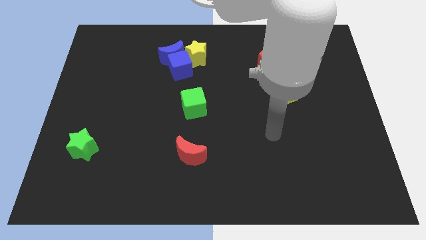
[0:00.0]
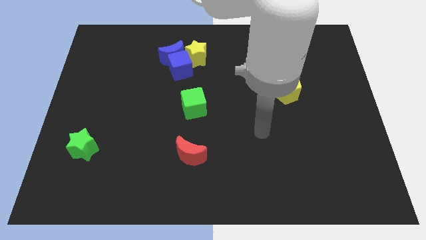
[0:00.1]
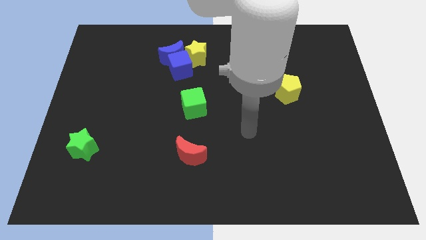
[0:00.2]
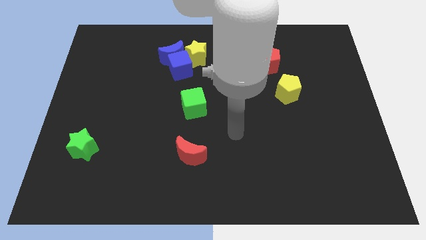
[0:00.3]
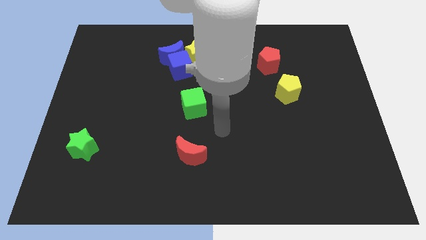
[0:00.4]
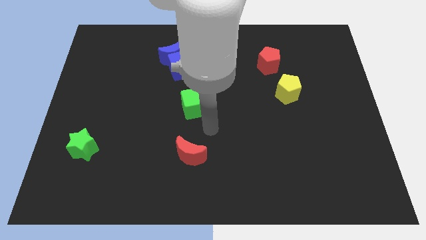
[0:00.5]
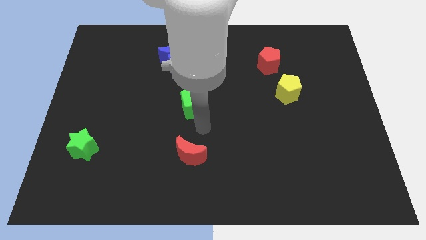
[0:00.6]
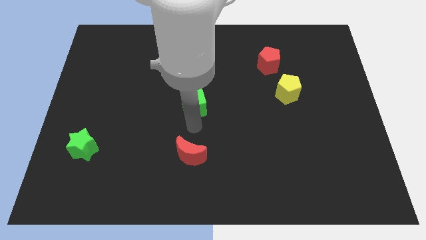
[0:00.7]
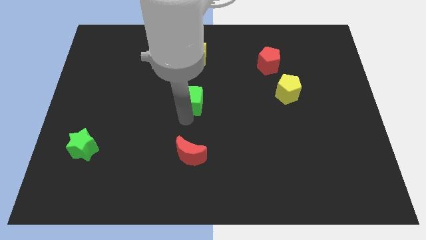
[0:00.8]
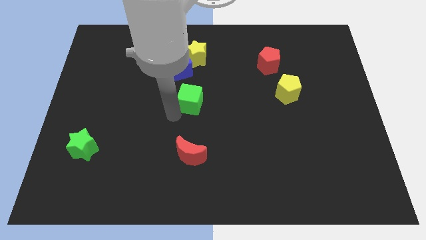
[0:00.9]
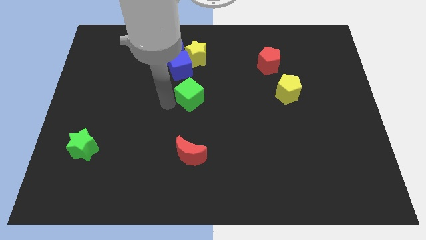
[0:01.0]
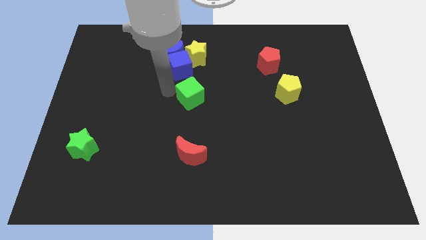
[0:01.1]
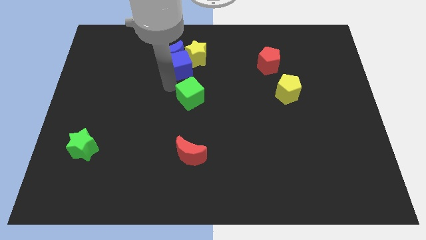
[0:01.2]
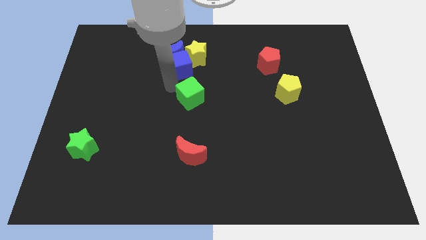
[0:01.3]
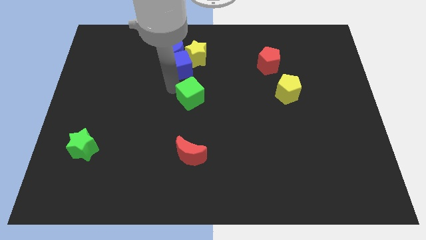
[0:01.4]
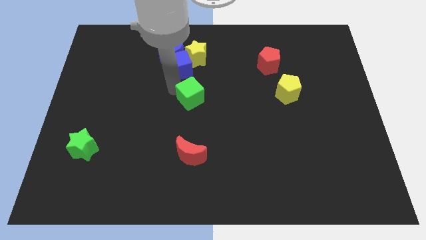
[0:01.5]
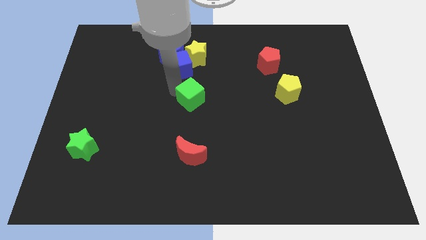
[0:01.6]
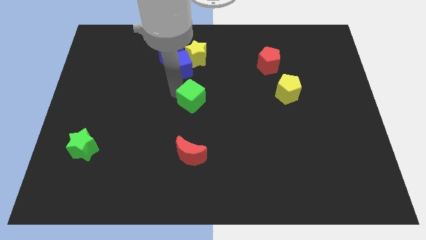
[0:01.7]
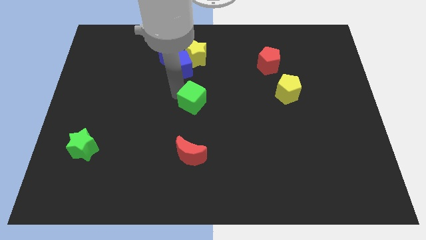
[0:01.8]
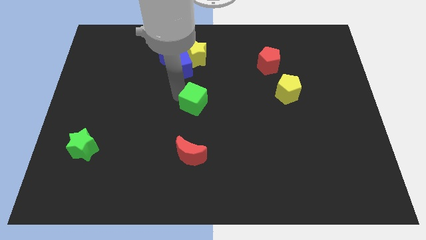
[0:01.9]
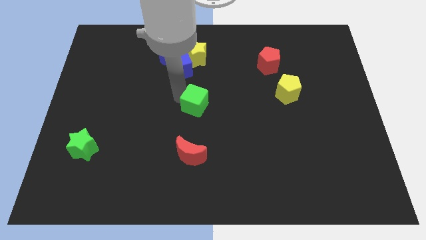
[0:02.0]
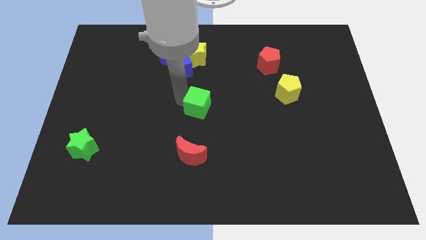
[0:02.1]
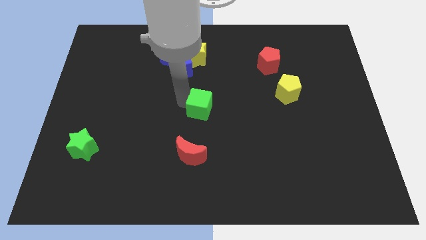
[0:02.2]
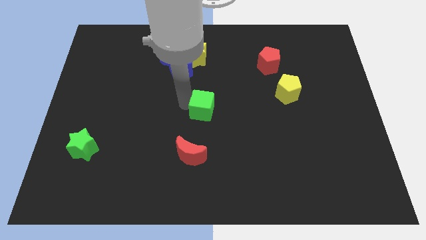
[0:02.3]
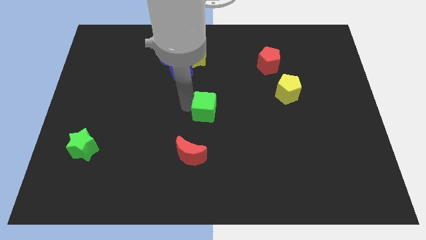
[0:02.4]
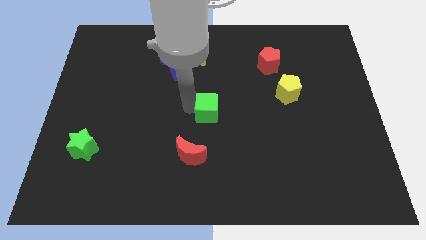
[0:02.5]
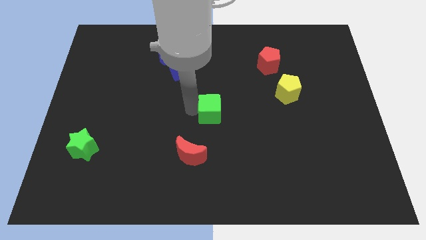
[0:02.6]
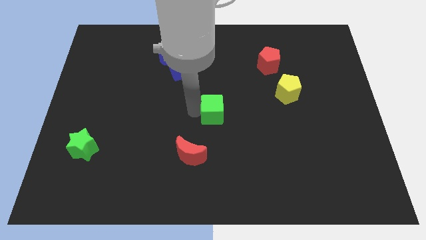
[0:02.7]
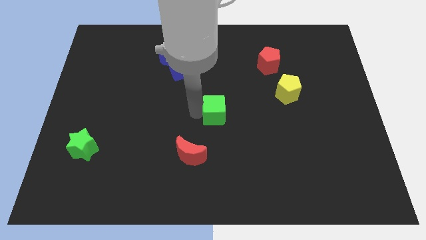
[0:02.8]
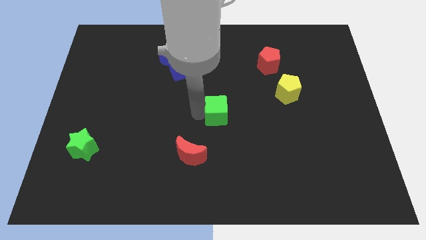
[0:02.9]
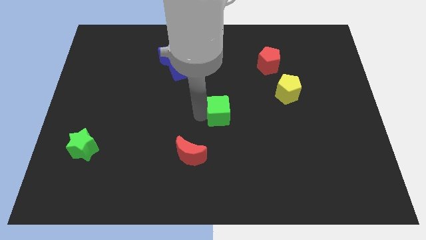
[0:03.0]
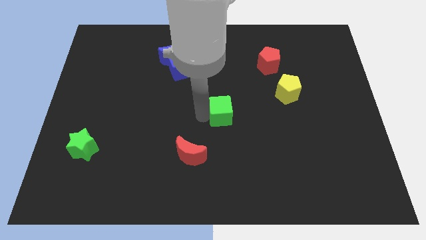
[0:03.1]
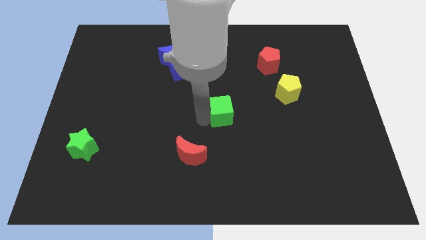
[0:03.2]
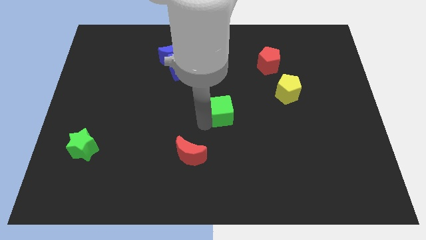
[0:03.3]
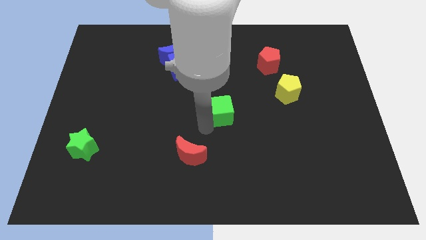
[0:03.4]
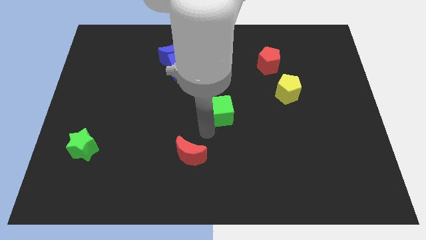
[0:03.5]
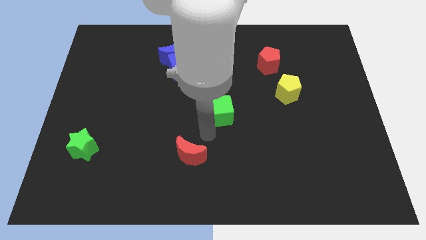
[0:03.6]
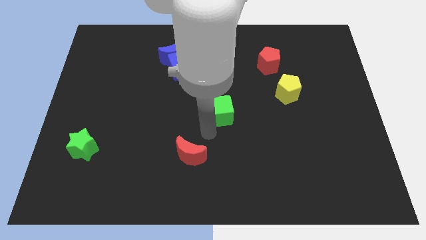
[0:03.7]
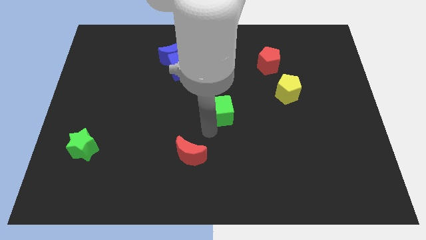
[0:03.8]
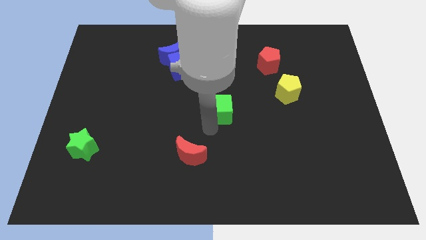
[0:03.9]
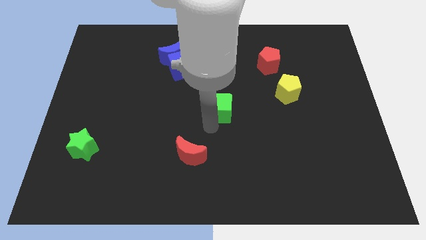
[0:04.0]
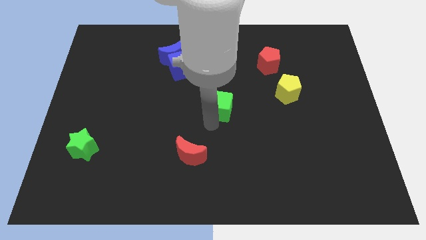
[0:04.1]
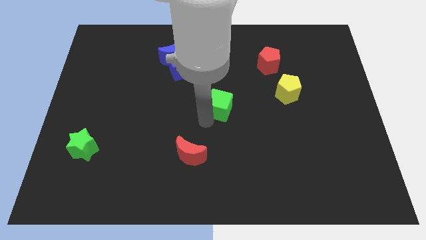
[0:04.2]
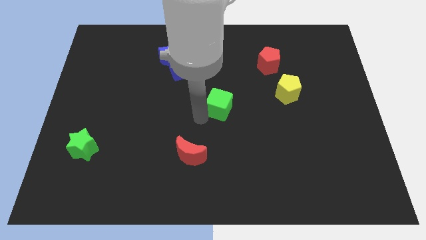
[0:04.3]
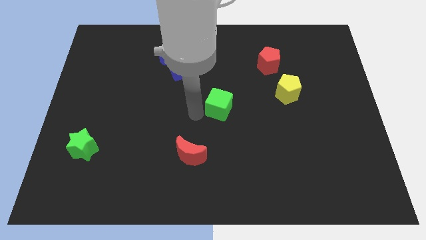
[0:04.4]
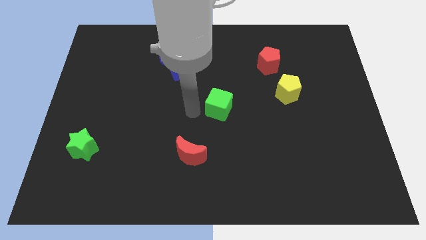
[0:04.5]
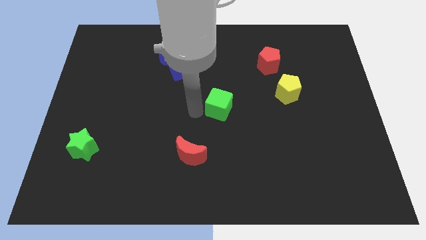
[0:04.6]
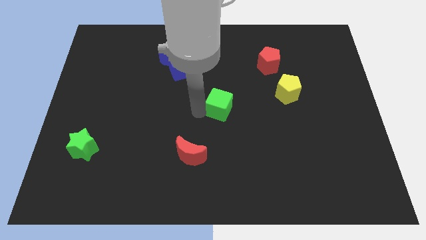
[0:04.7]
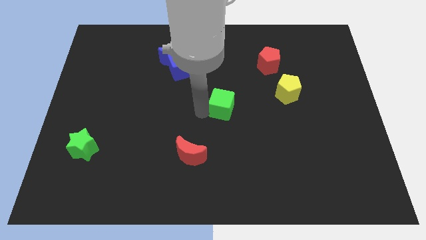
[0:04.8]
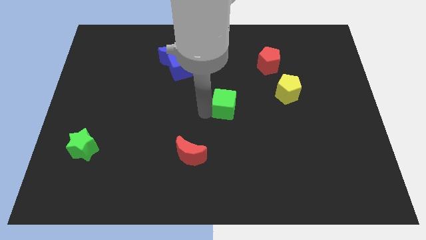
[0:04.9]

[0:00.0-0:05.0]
move the green cube slightly right

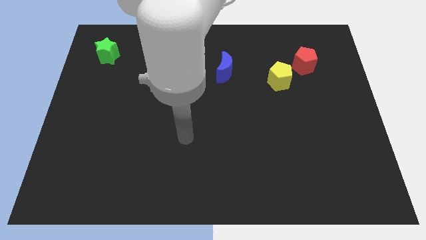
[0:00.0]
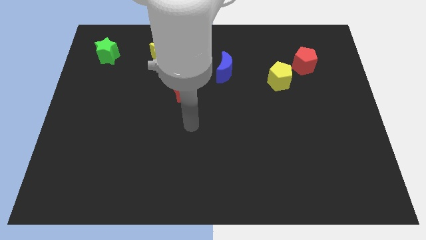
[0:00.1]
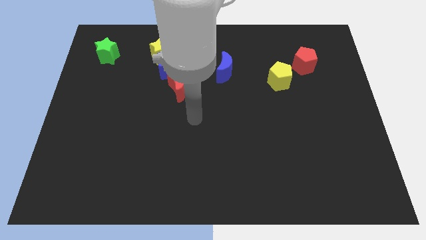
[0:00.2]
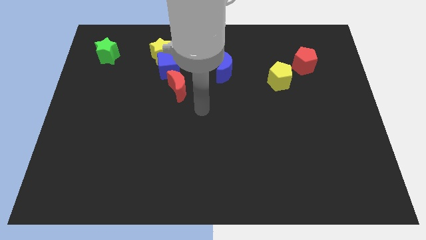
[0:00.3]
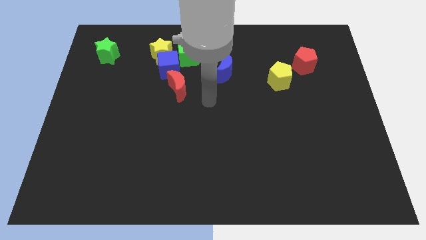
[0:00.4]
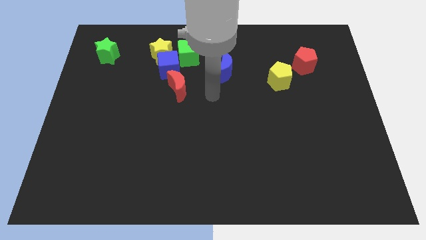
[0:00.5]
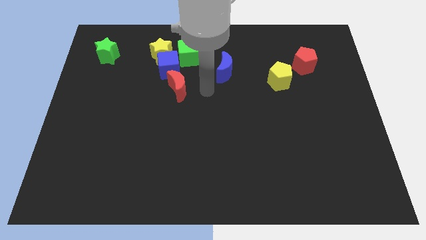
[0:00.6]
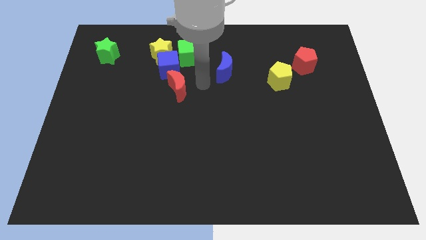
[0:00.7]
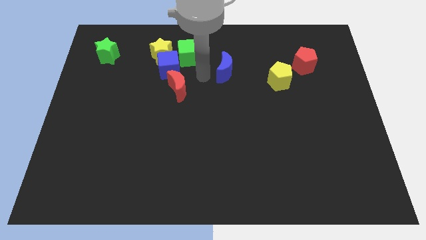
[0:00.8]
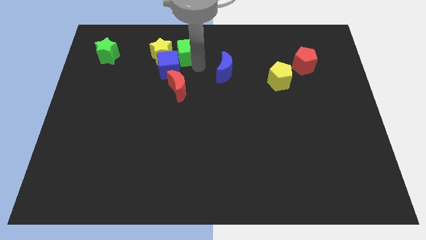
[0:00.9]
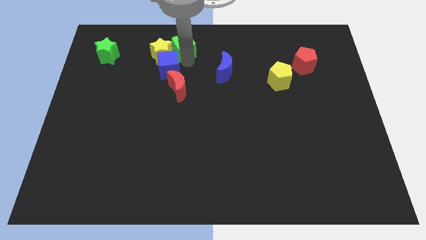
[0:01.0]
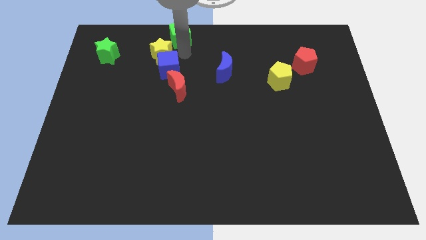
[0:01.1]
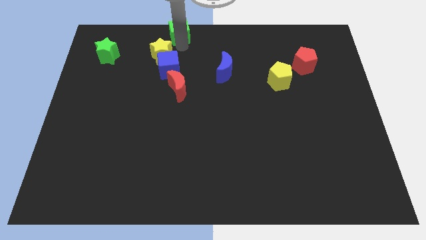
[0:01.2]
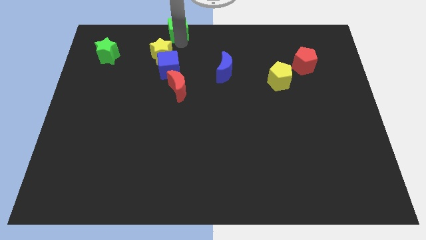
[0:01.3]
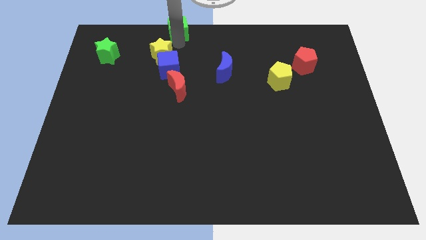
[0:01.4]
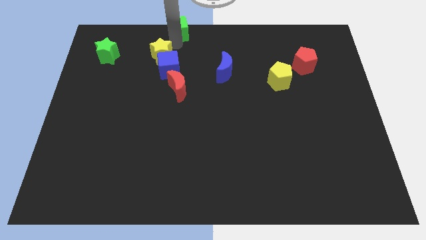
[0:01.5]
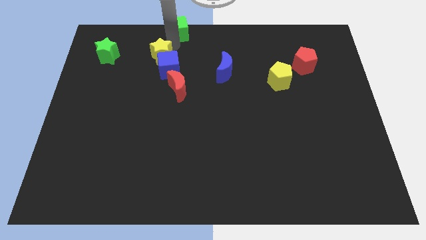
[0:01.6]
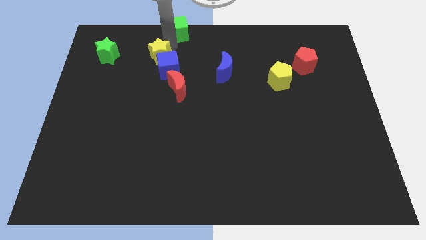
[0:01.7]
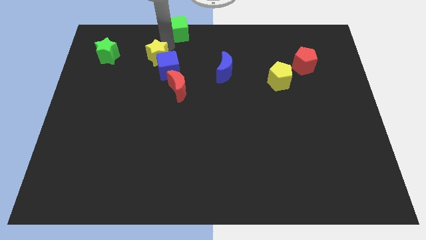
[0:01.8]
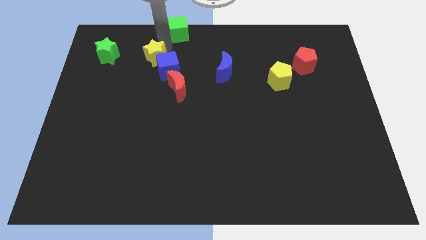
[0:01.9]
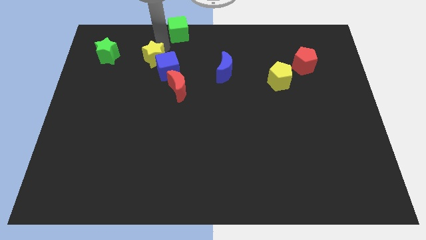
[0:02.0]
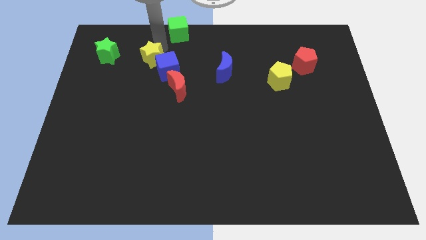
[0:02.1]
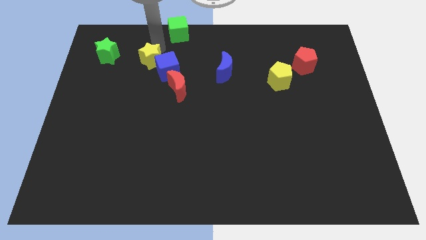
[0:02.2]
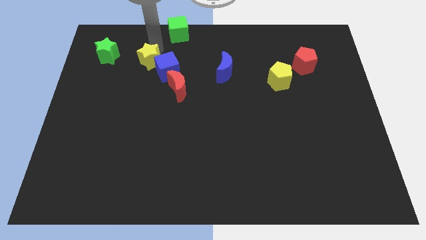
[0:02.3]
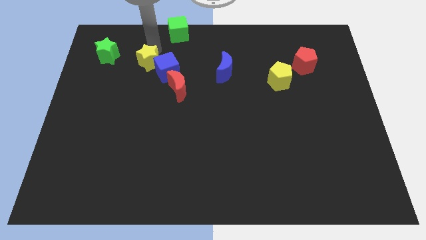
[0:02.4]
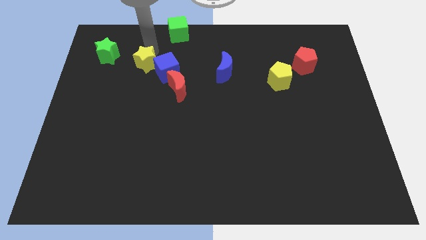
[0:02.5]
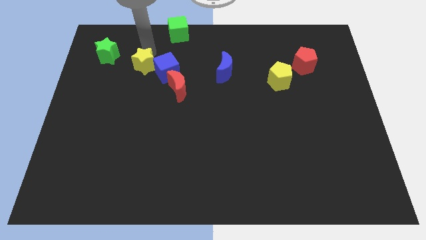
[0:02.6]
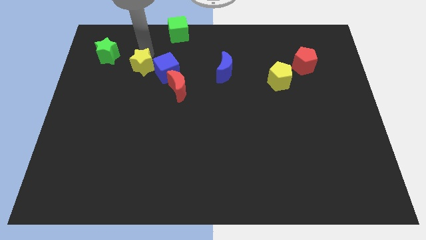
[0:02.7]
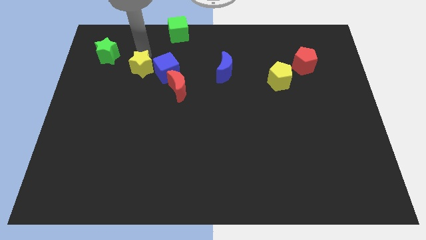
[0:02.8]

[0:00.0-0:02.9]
slightly move the yellow star down and left diagonally

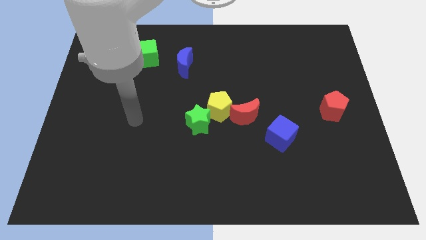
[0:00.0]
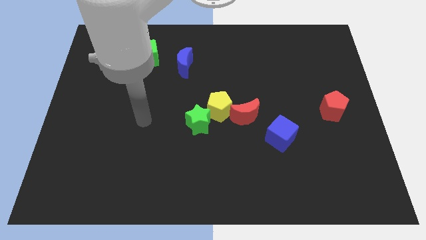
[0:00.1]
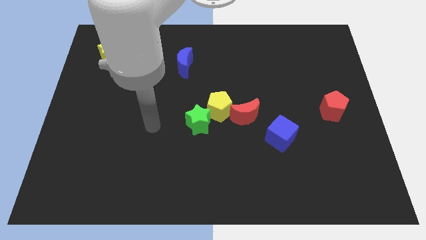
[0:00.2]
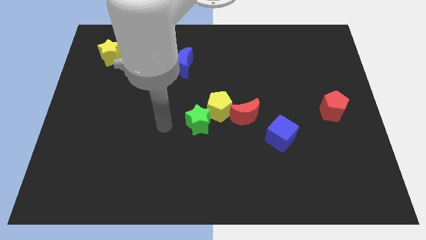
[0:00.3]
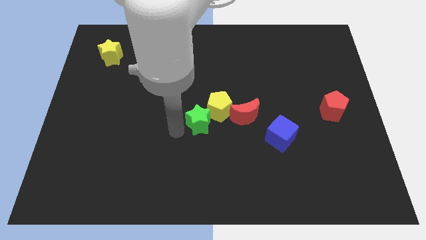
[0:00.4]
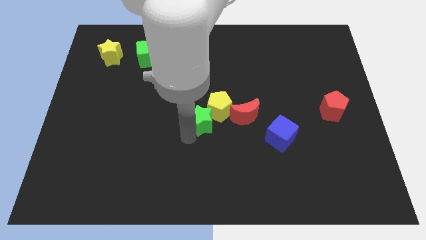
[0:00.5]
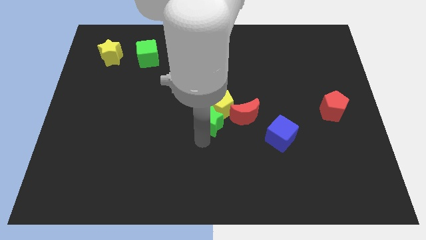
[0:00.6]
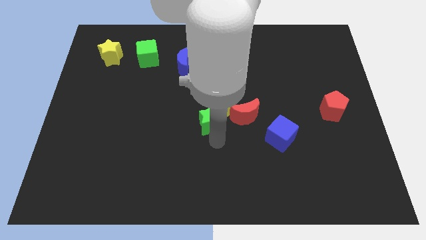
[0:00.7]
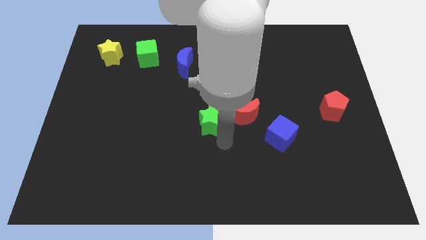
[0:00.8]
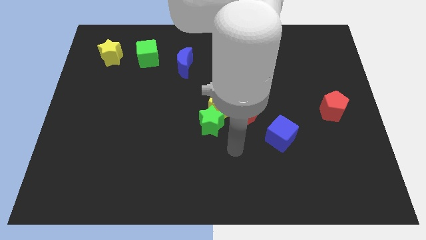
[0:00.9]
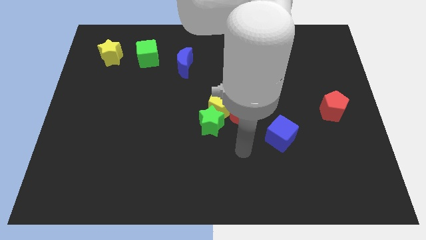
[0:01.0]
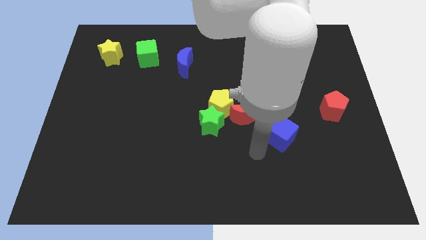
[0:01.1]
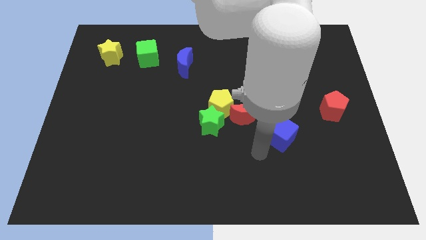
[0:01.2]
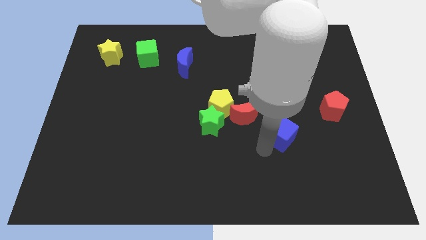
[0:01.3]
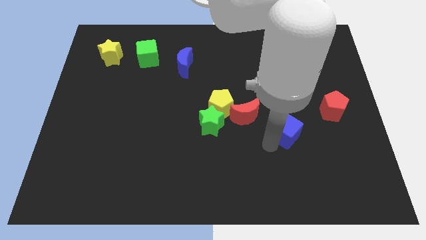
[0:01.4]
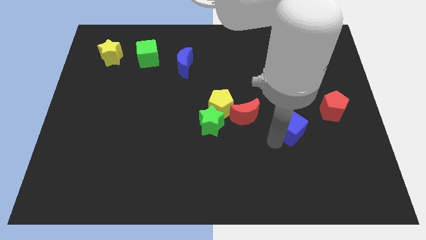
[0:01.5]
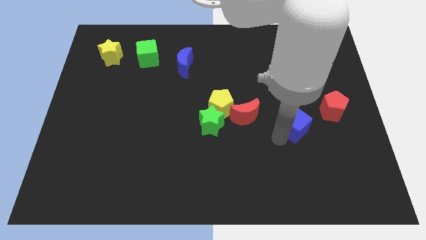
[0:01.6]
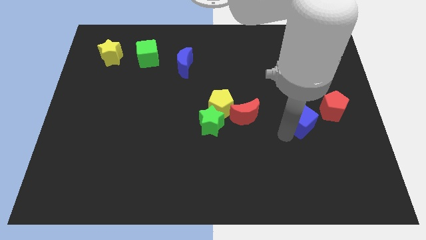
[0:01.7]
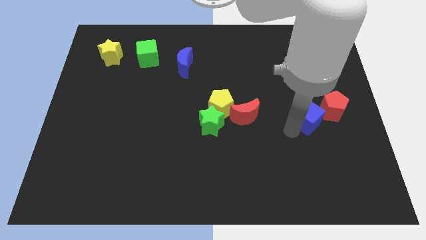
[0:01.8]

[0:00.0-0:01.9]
slide the blue cube upwards and then right somewhat
